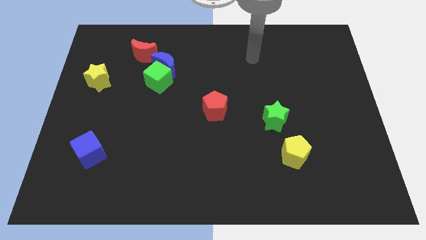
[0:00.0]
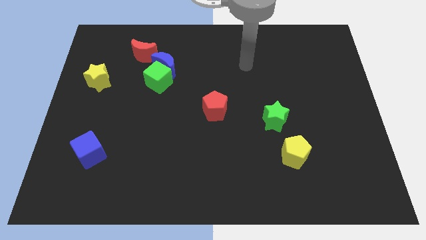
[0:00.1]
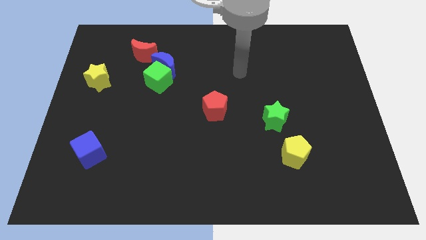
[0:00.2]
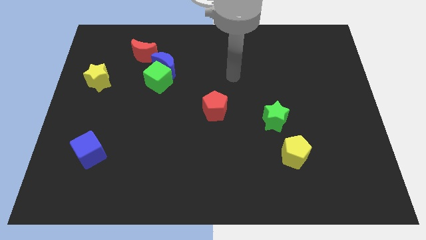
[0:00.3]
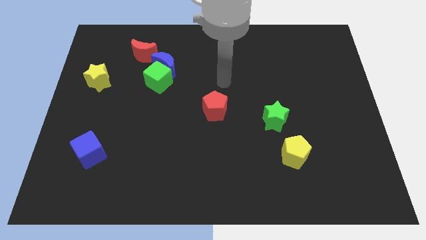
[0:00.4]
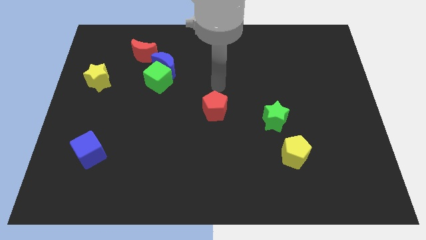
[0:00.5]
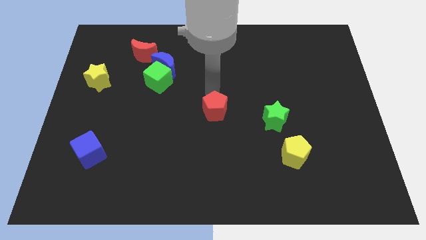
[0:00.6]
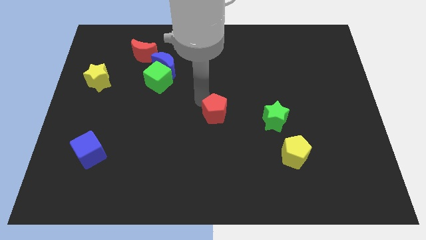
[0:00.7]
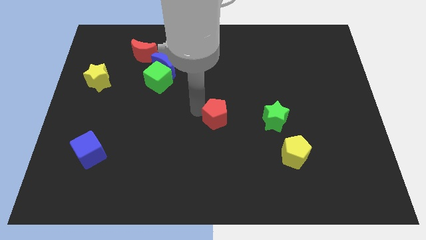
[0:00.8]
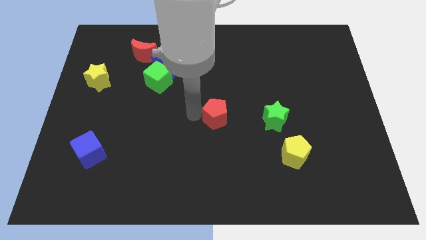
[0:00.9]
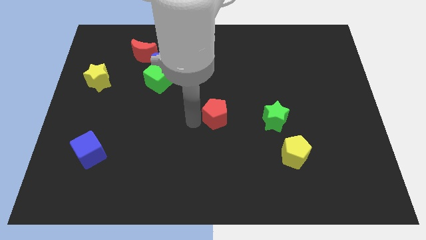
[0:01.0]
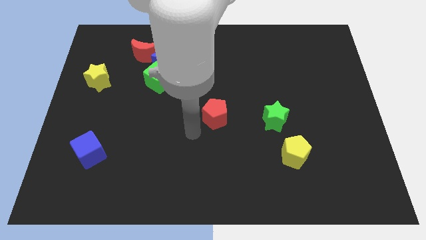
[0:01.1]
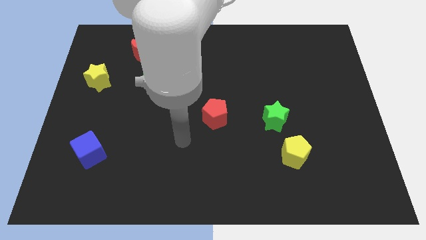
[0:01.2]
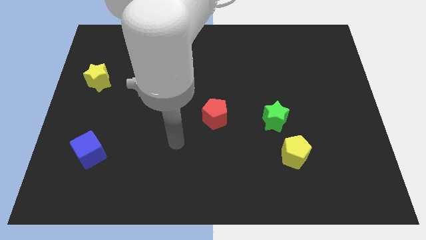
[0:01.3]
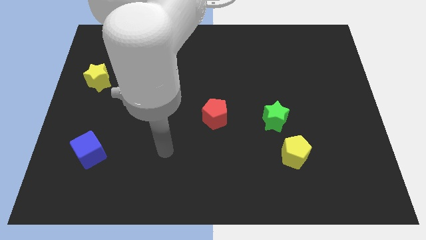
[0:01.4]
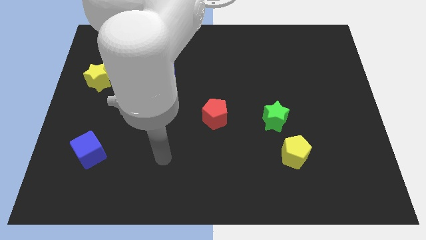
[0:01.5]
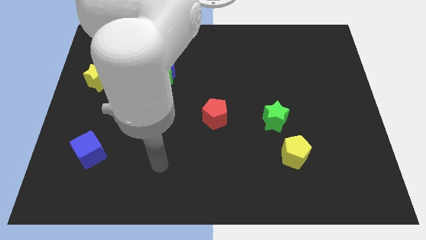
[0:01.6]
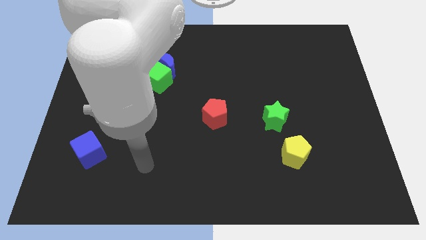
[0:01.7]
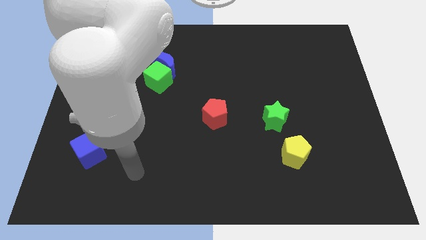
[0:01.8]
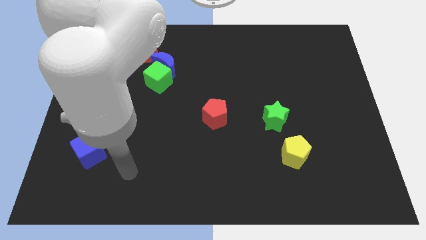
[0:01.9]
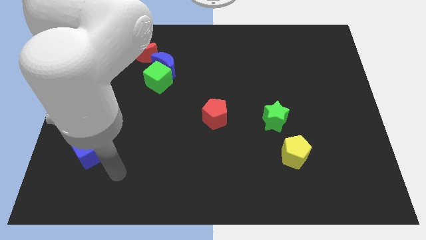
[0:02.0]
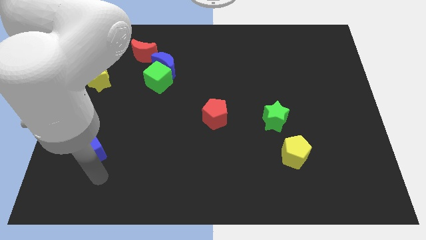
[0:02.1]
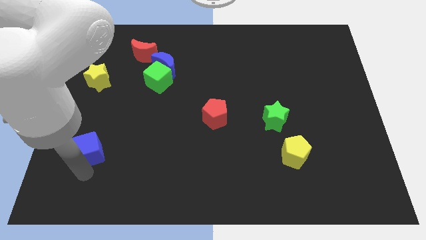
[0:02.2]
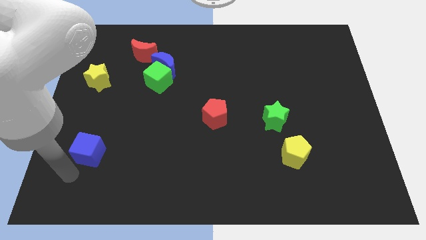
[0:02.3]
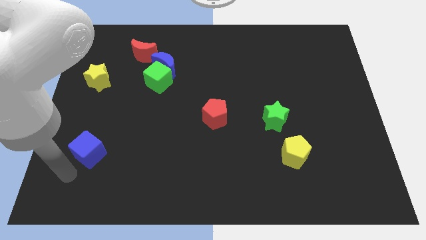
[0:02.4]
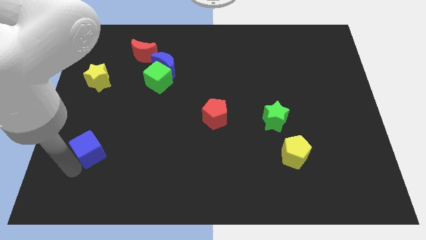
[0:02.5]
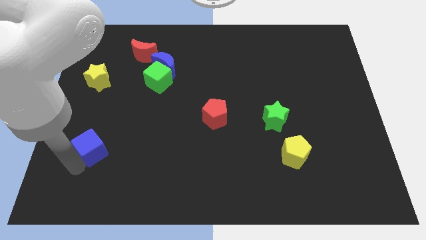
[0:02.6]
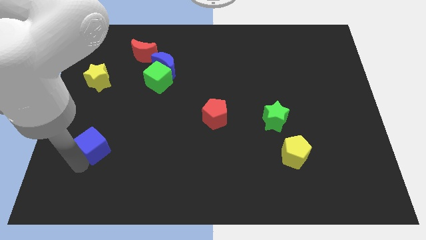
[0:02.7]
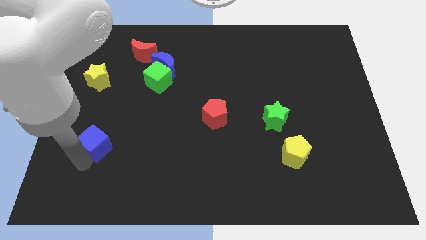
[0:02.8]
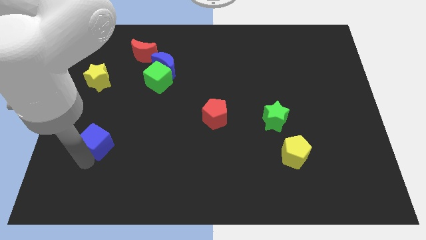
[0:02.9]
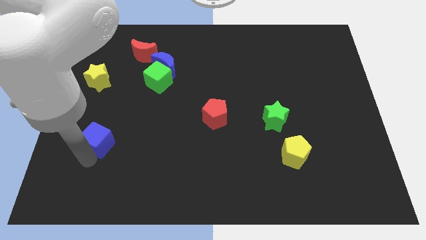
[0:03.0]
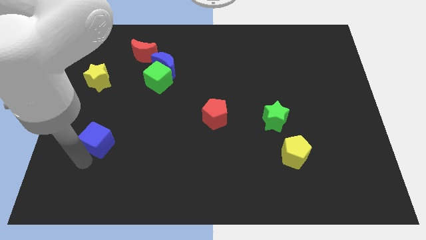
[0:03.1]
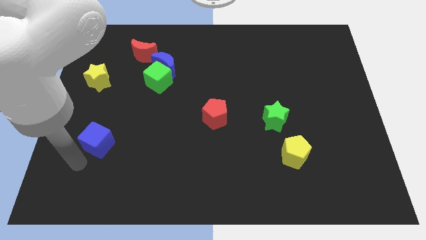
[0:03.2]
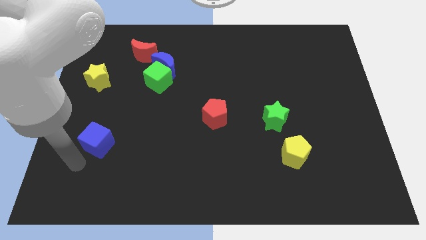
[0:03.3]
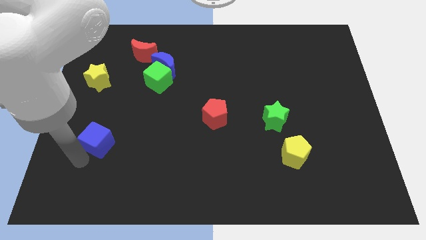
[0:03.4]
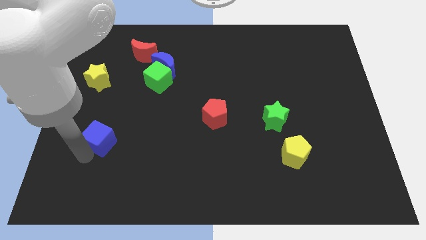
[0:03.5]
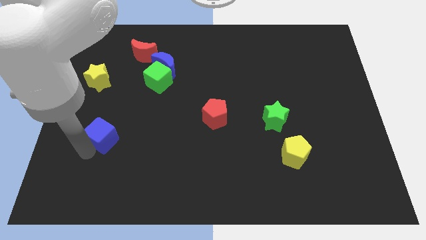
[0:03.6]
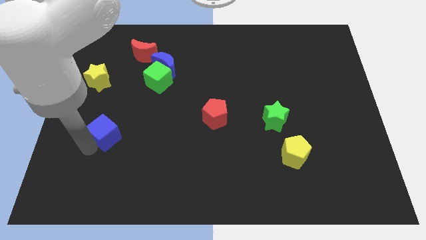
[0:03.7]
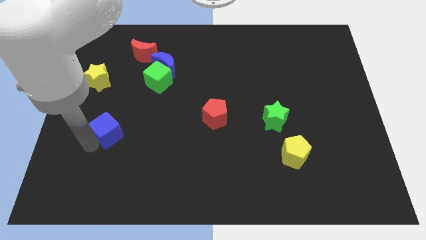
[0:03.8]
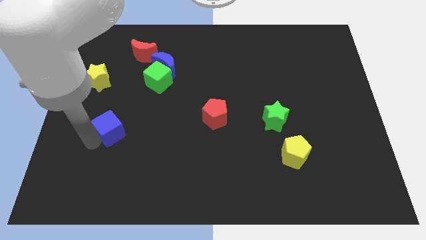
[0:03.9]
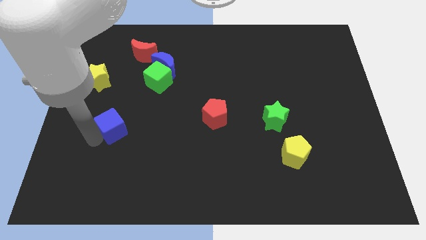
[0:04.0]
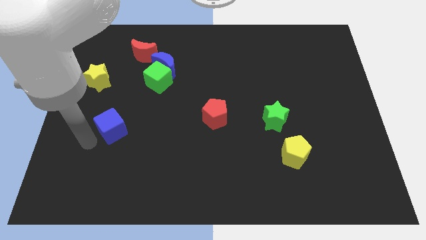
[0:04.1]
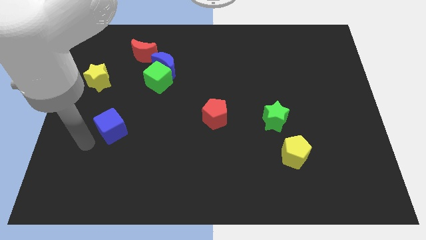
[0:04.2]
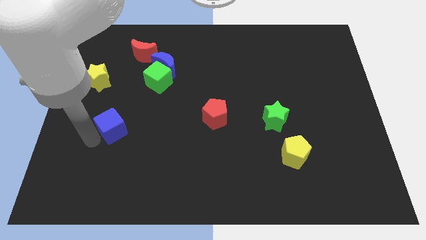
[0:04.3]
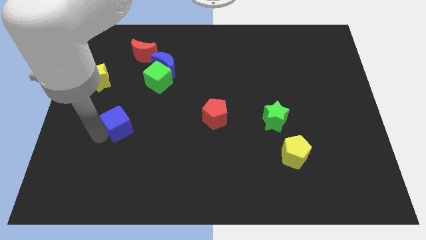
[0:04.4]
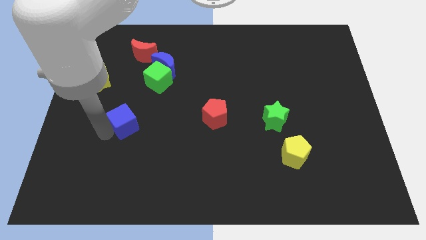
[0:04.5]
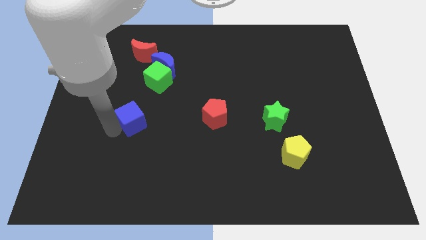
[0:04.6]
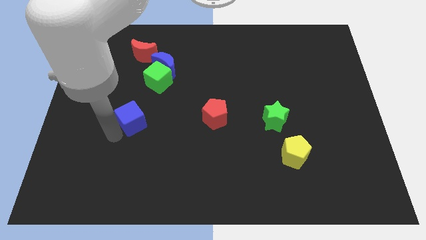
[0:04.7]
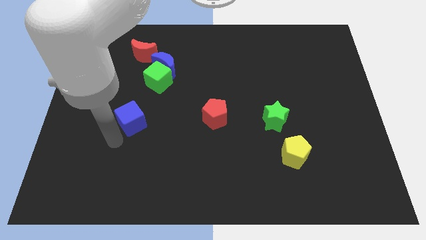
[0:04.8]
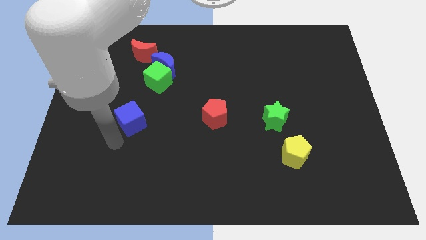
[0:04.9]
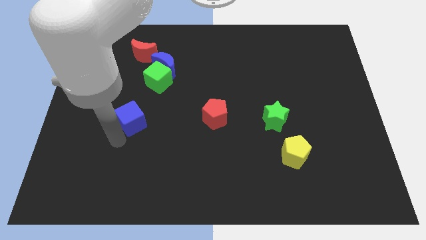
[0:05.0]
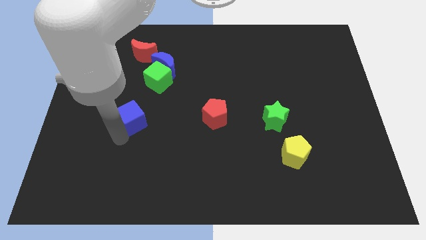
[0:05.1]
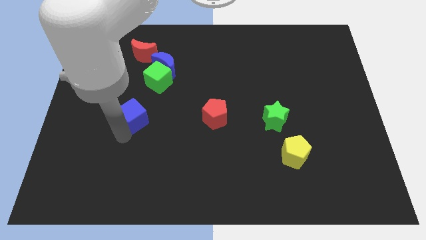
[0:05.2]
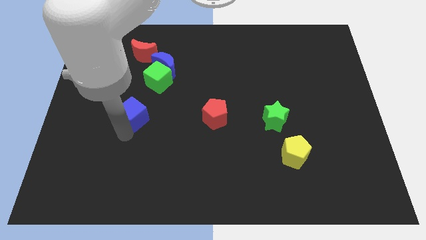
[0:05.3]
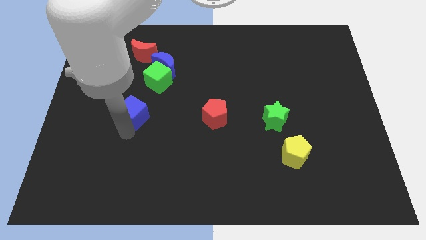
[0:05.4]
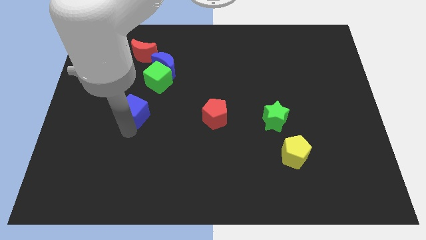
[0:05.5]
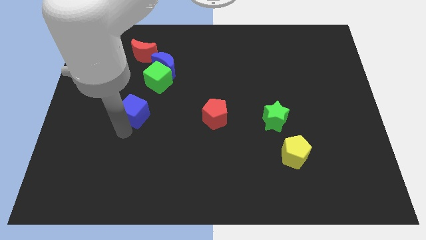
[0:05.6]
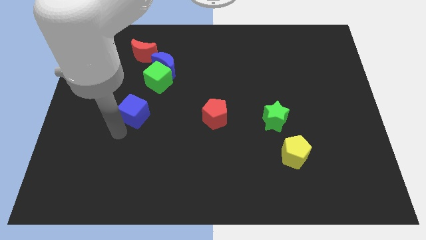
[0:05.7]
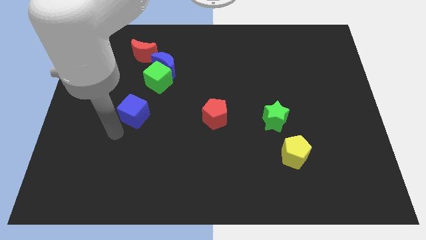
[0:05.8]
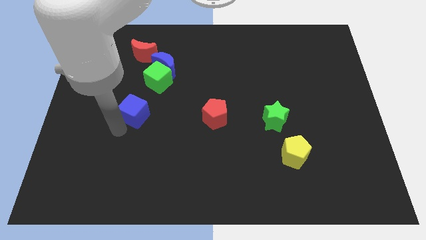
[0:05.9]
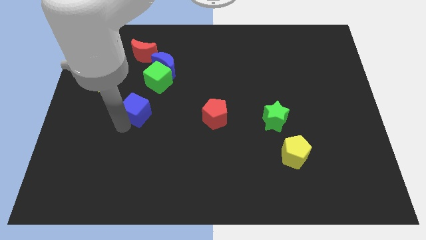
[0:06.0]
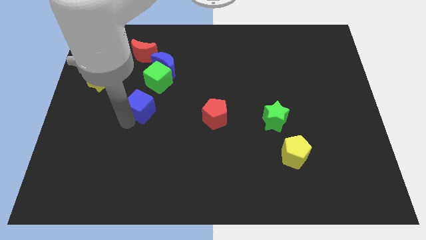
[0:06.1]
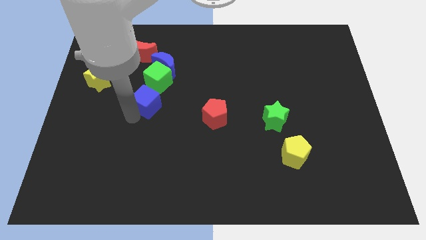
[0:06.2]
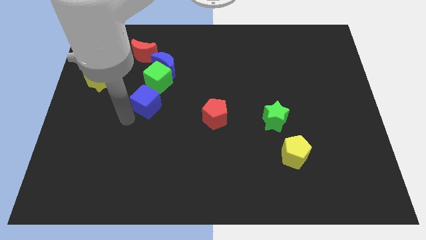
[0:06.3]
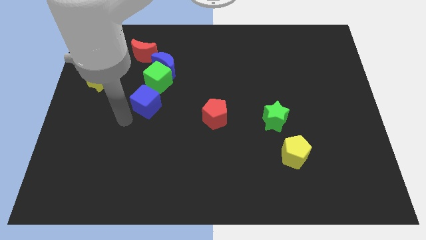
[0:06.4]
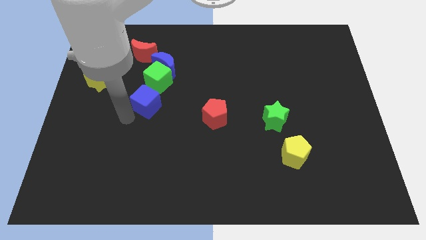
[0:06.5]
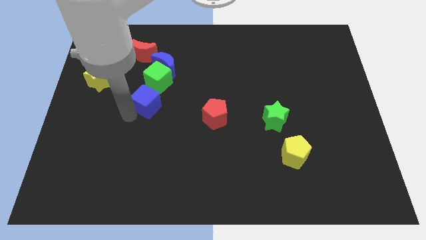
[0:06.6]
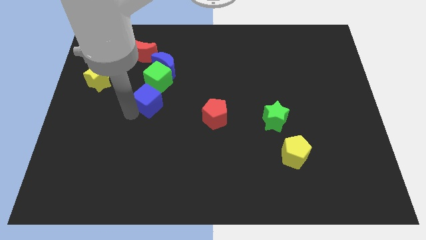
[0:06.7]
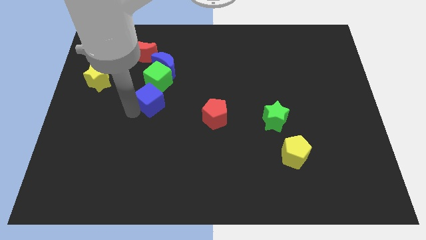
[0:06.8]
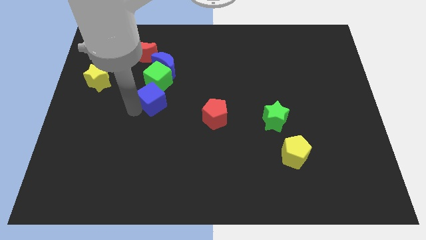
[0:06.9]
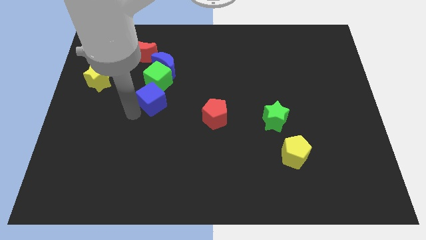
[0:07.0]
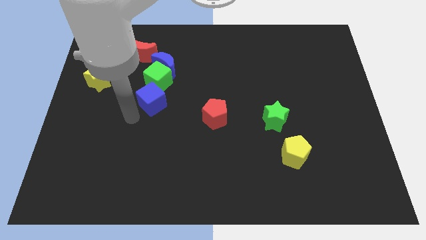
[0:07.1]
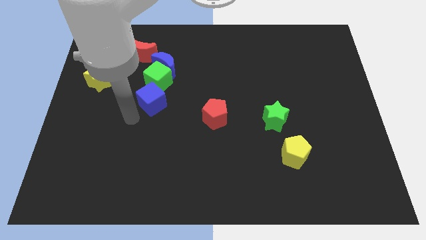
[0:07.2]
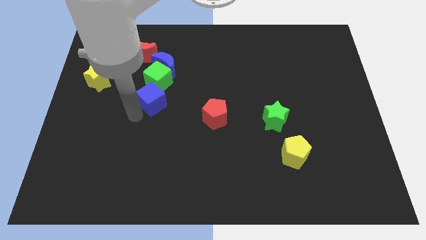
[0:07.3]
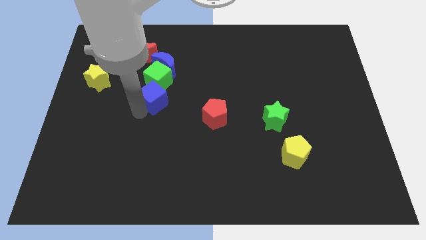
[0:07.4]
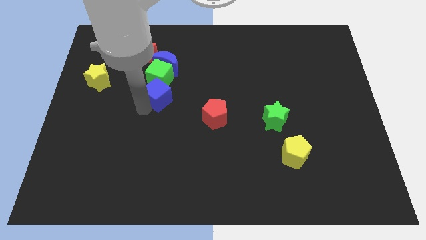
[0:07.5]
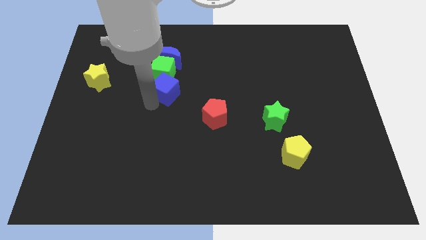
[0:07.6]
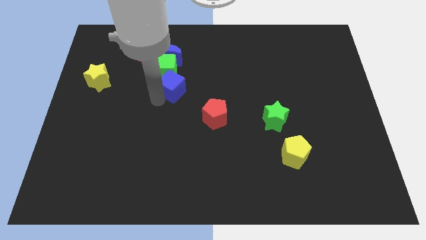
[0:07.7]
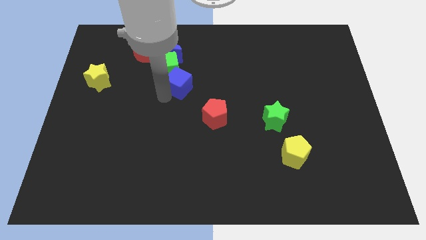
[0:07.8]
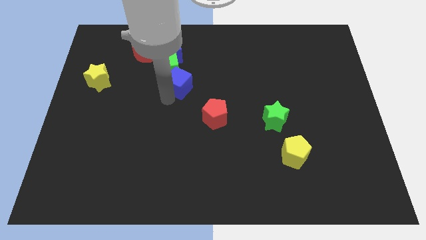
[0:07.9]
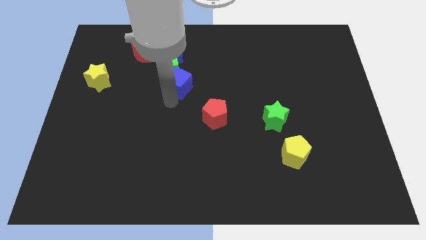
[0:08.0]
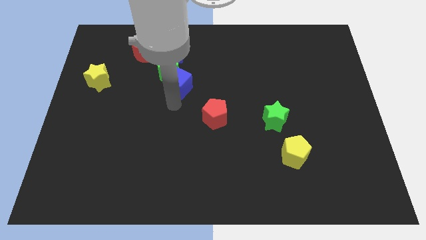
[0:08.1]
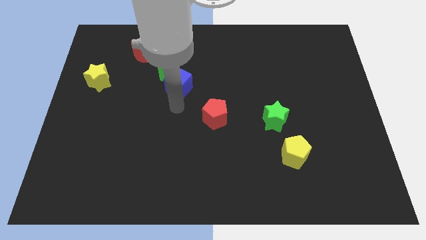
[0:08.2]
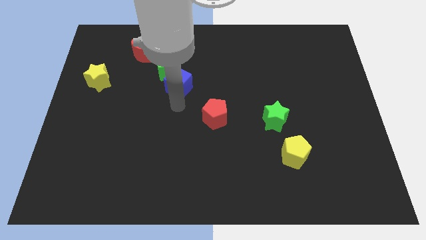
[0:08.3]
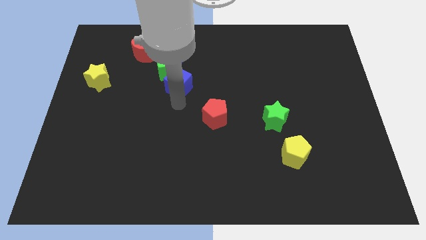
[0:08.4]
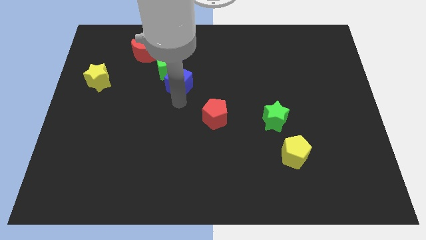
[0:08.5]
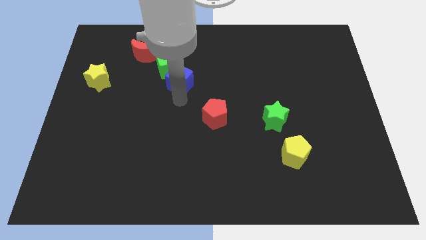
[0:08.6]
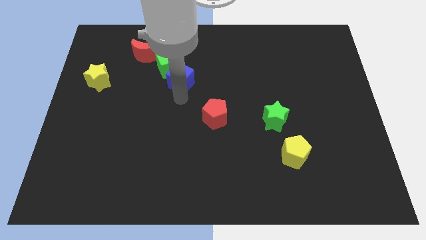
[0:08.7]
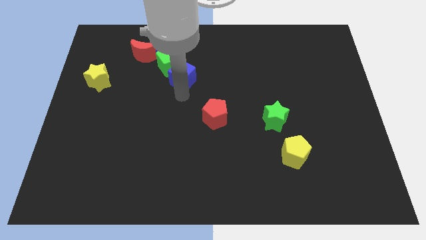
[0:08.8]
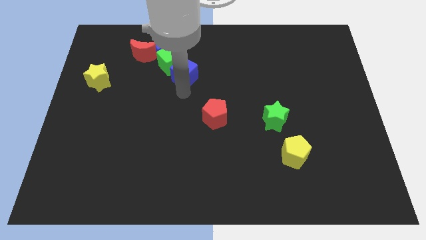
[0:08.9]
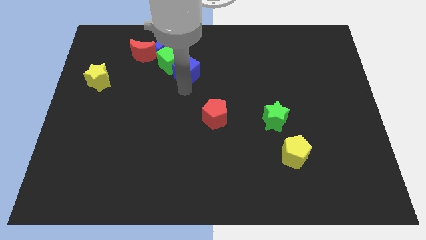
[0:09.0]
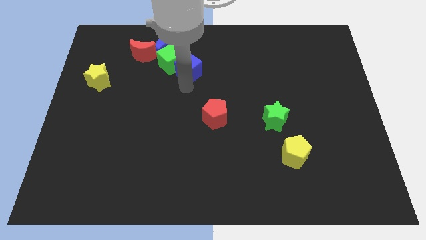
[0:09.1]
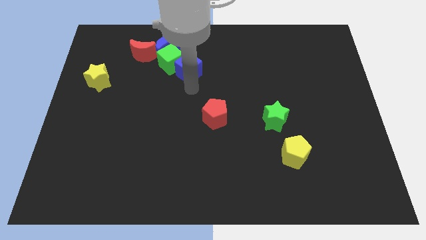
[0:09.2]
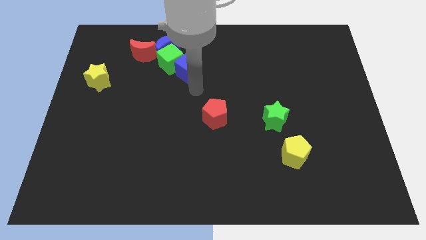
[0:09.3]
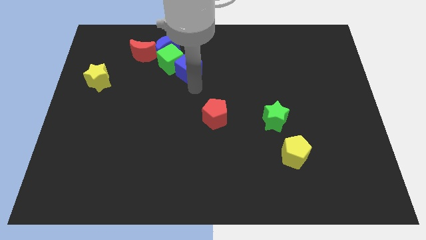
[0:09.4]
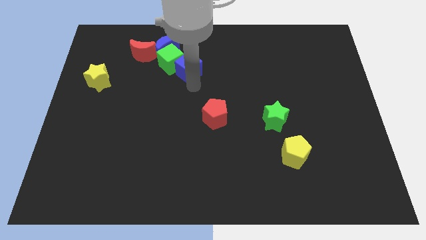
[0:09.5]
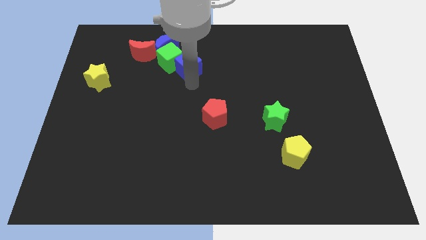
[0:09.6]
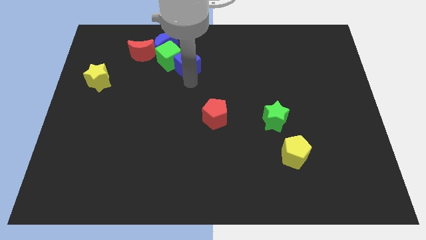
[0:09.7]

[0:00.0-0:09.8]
move the blue cube to the right of the red moon
